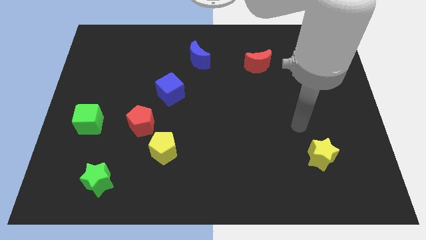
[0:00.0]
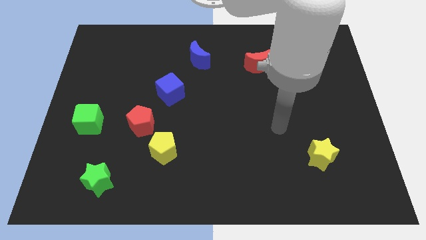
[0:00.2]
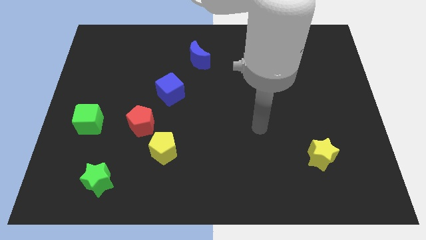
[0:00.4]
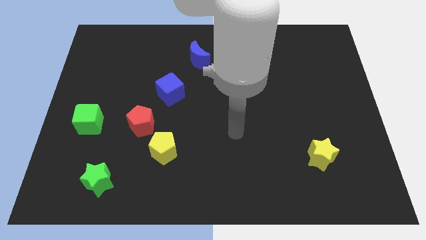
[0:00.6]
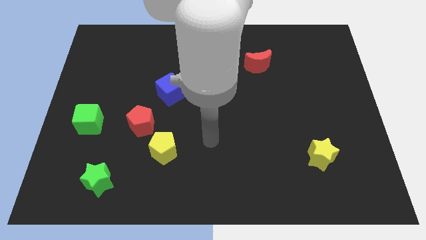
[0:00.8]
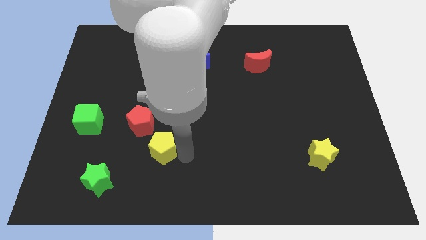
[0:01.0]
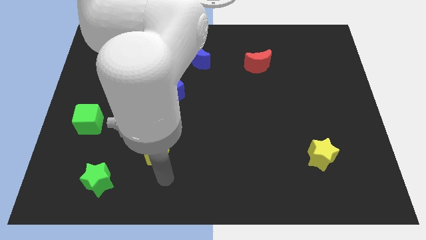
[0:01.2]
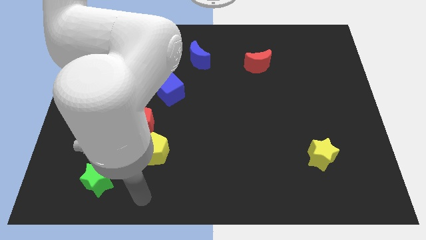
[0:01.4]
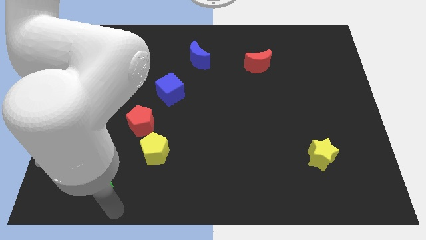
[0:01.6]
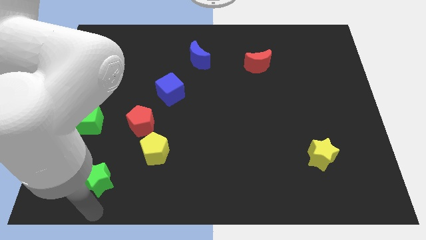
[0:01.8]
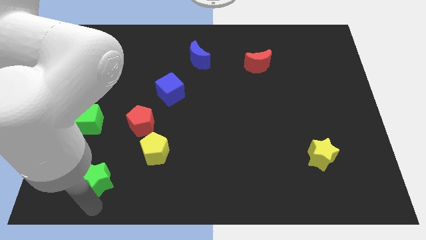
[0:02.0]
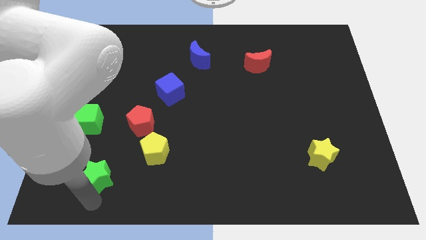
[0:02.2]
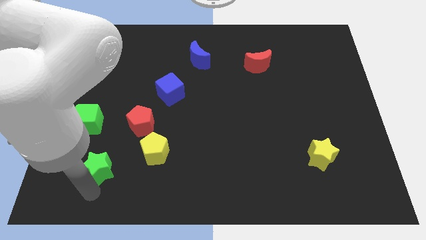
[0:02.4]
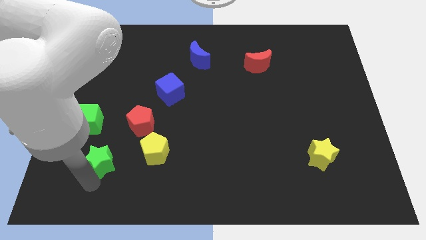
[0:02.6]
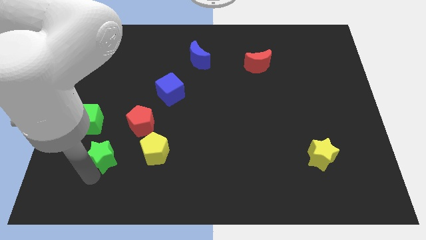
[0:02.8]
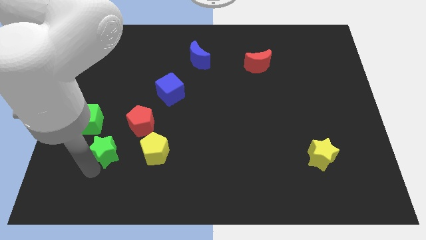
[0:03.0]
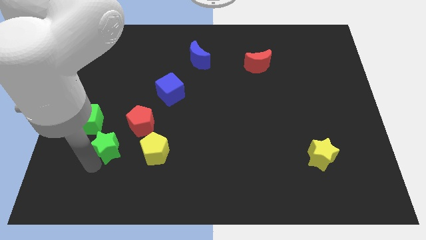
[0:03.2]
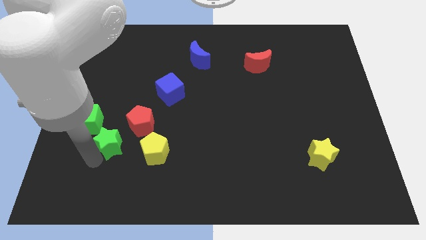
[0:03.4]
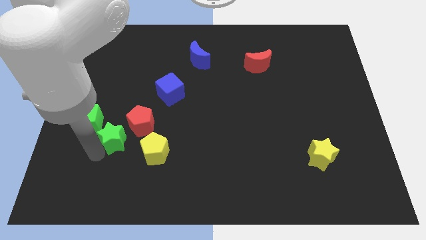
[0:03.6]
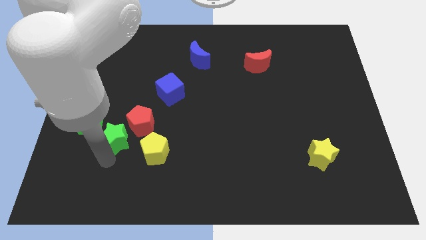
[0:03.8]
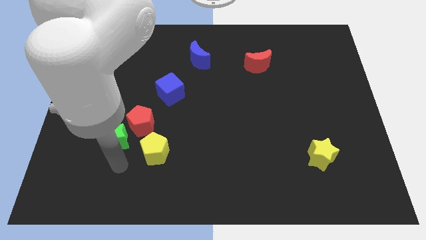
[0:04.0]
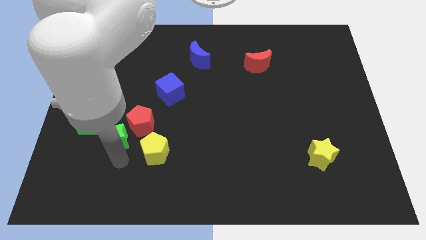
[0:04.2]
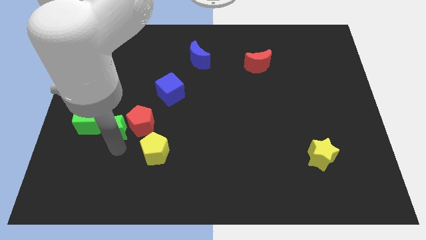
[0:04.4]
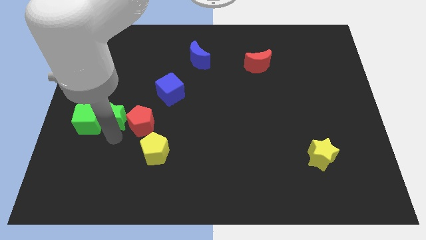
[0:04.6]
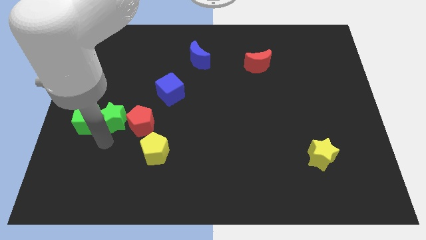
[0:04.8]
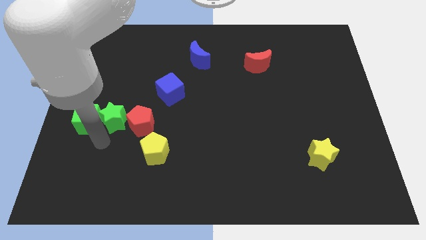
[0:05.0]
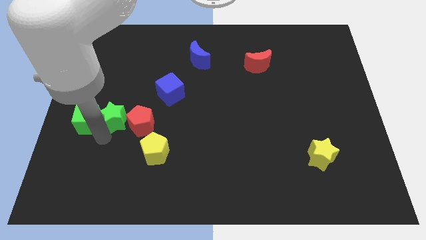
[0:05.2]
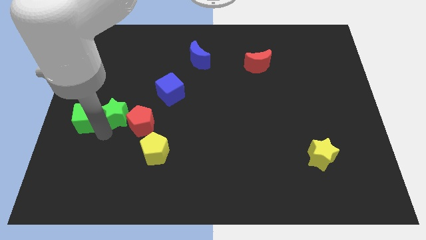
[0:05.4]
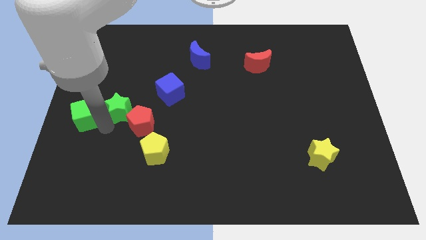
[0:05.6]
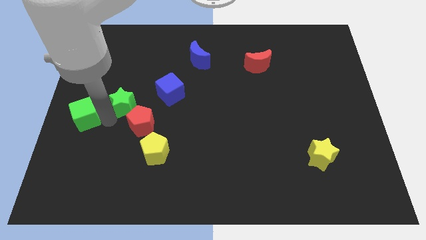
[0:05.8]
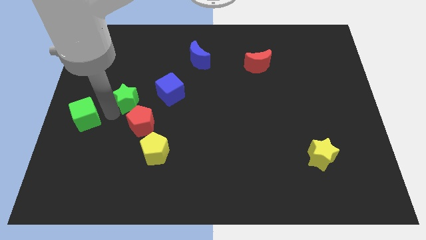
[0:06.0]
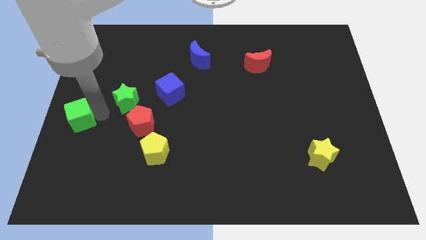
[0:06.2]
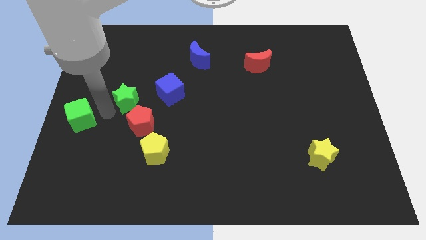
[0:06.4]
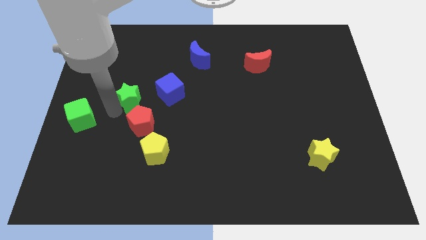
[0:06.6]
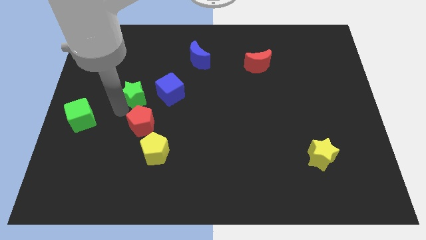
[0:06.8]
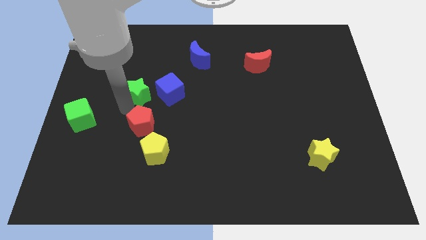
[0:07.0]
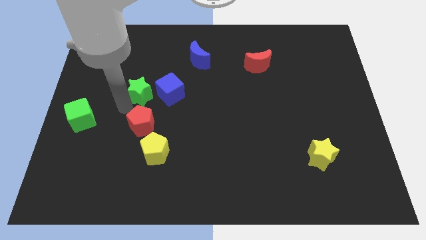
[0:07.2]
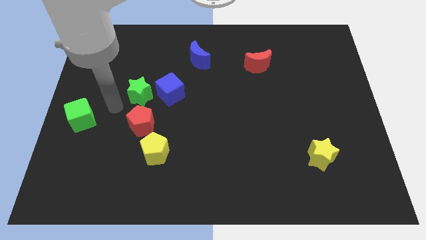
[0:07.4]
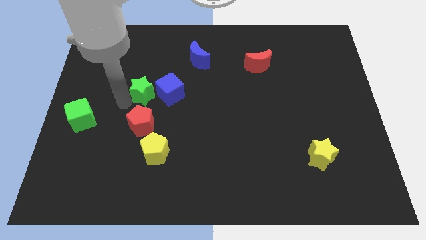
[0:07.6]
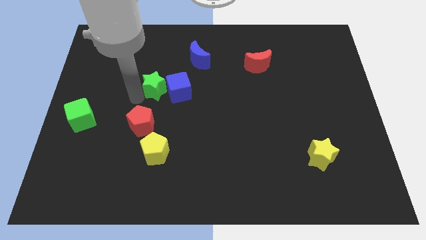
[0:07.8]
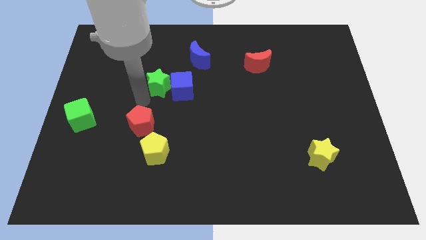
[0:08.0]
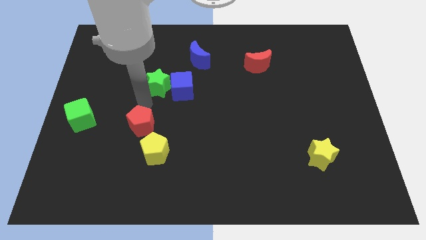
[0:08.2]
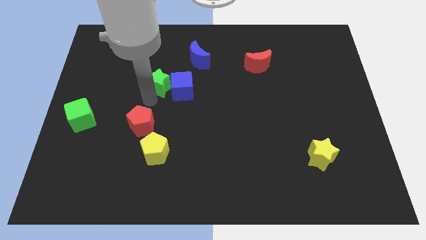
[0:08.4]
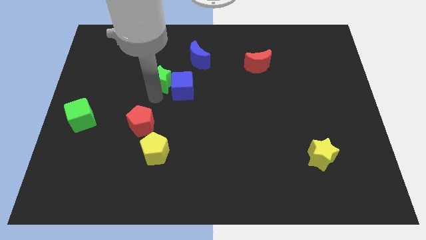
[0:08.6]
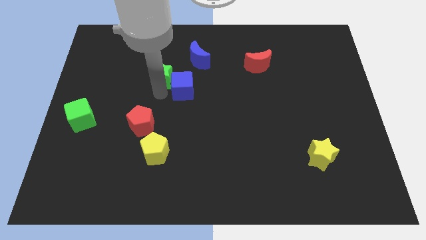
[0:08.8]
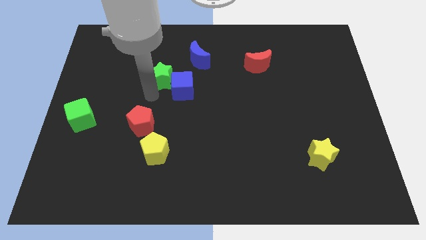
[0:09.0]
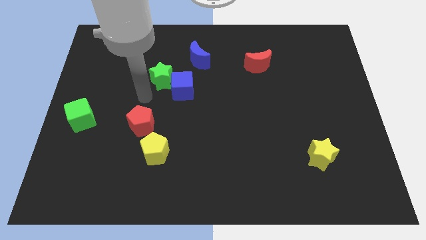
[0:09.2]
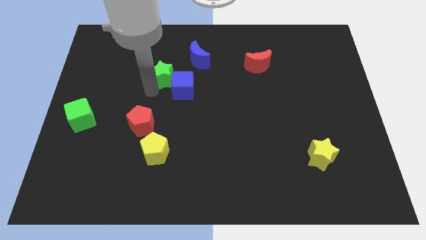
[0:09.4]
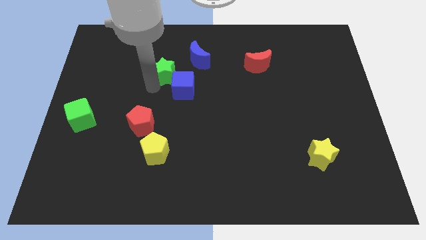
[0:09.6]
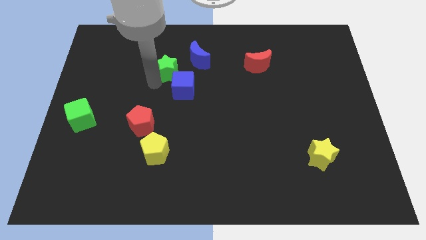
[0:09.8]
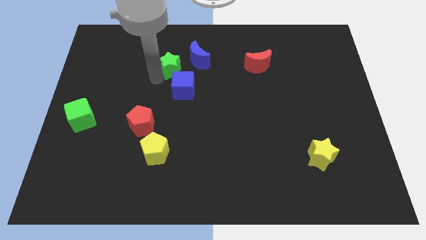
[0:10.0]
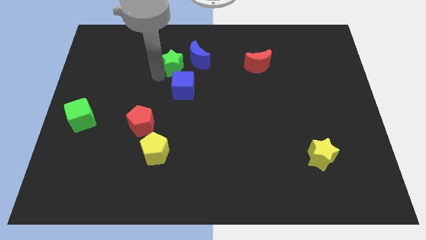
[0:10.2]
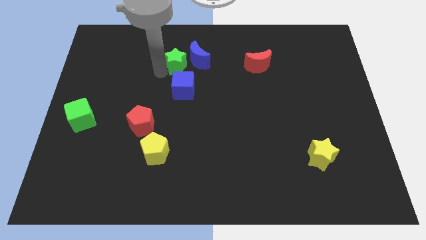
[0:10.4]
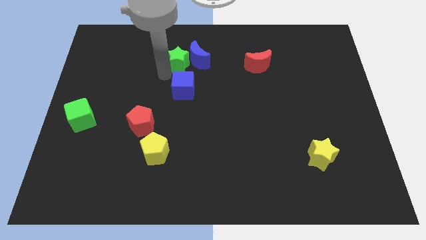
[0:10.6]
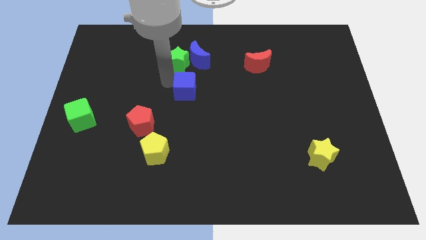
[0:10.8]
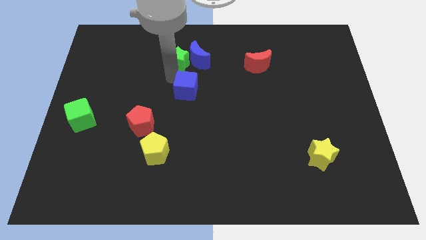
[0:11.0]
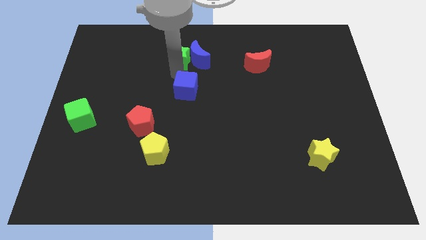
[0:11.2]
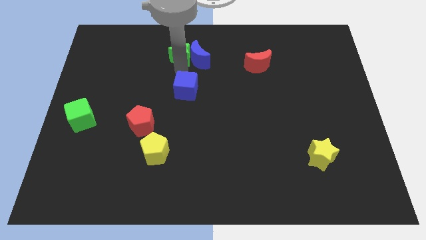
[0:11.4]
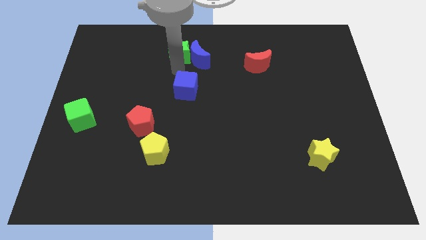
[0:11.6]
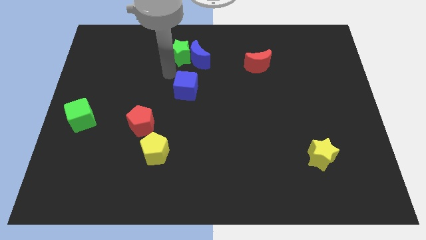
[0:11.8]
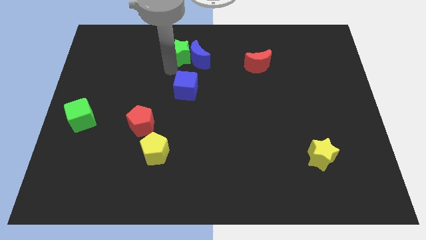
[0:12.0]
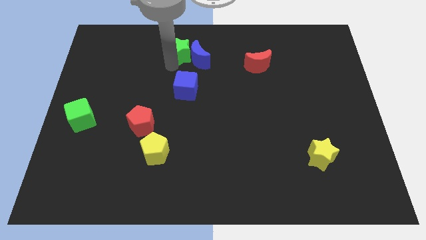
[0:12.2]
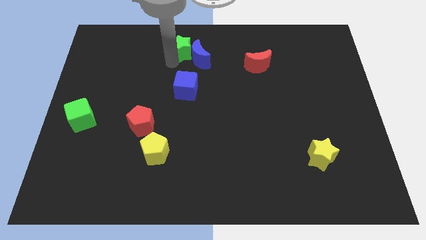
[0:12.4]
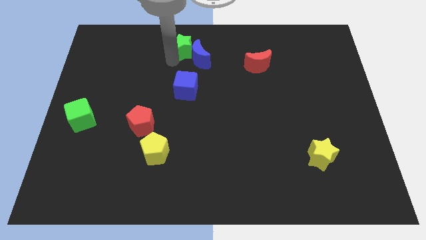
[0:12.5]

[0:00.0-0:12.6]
push the green star to the top
